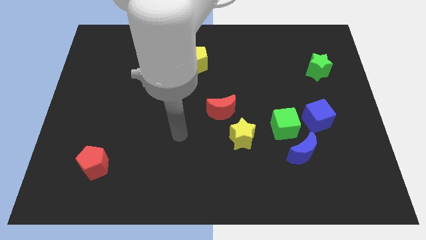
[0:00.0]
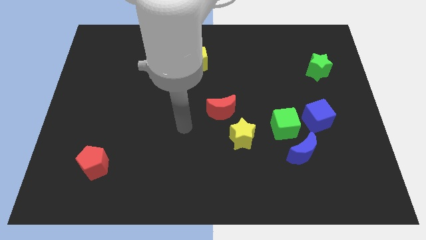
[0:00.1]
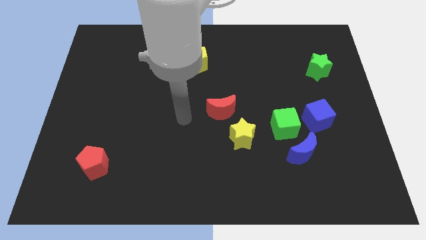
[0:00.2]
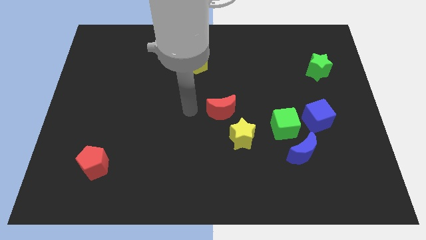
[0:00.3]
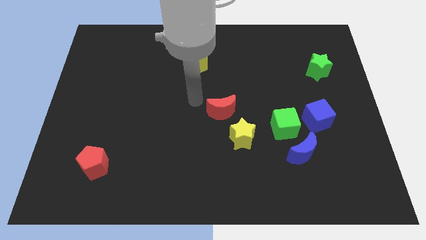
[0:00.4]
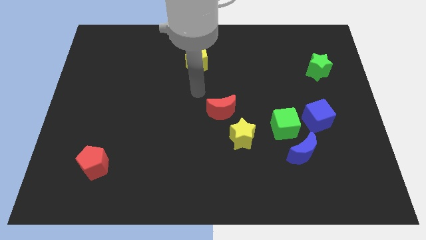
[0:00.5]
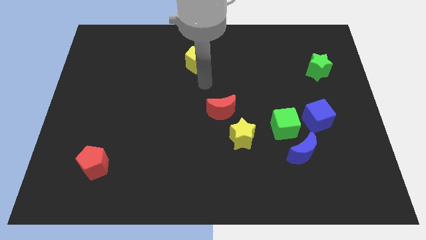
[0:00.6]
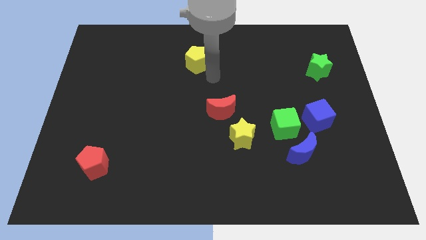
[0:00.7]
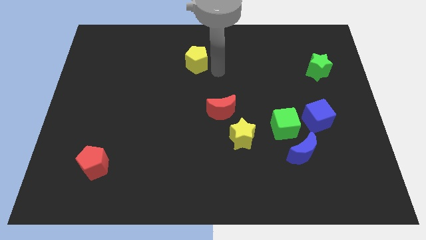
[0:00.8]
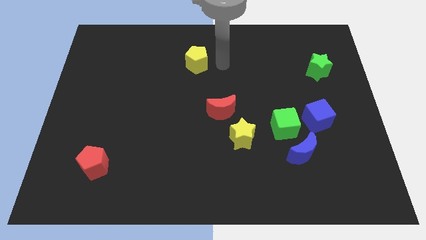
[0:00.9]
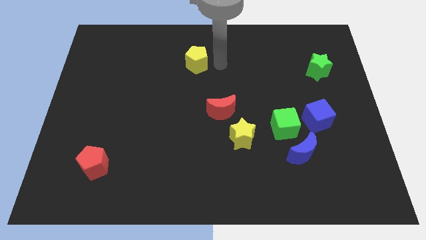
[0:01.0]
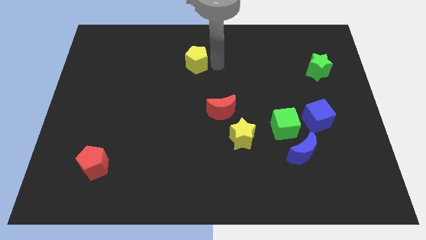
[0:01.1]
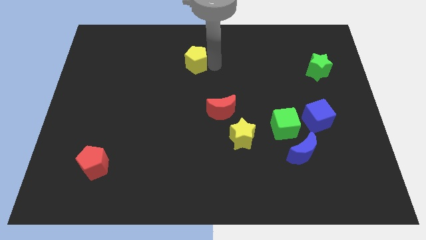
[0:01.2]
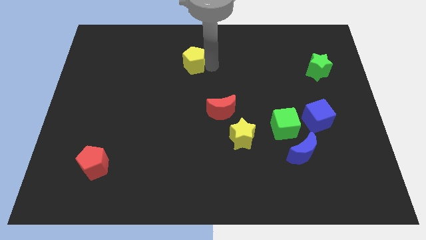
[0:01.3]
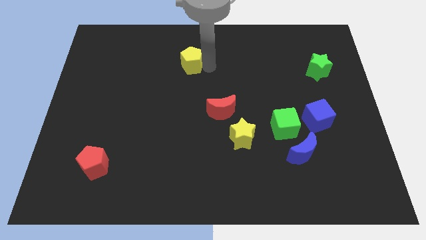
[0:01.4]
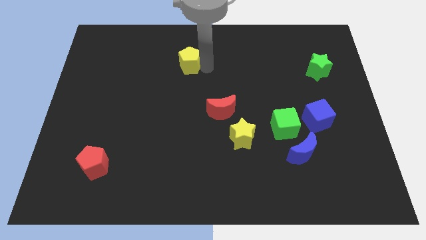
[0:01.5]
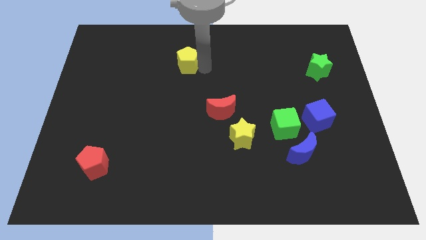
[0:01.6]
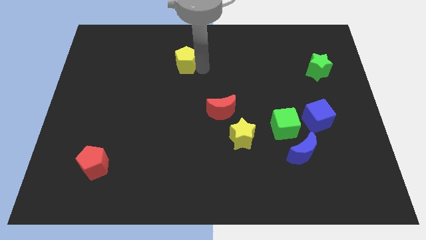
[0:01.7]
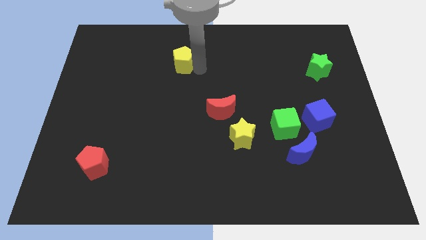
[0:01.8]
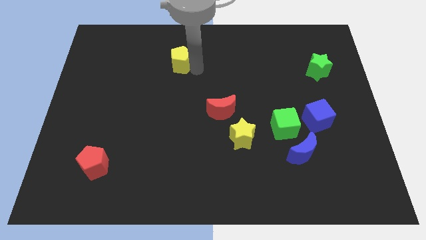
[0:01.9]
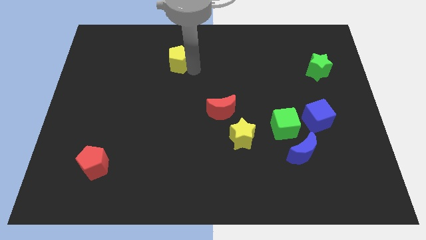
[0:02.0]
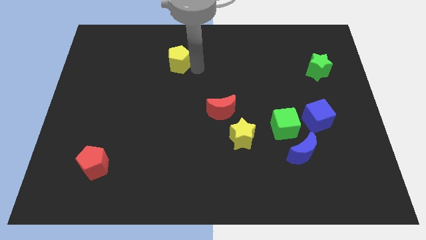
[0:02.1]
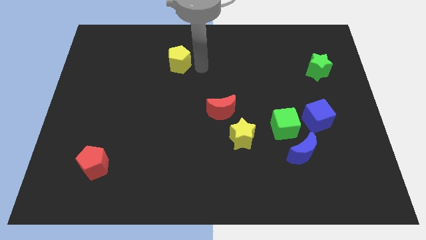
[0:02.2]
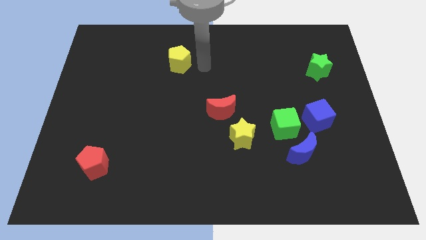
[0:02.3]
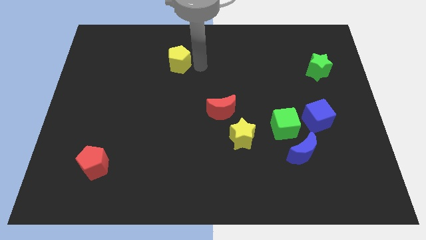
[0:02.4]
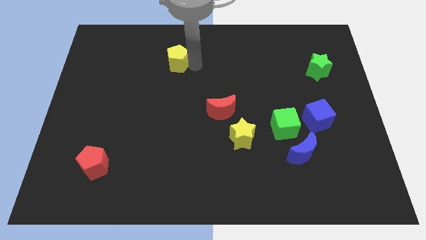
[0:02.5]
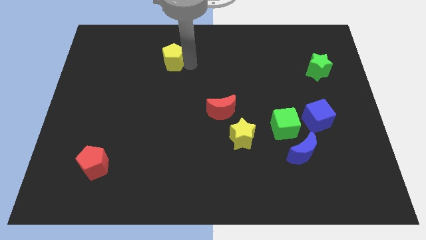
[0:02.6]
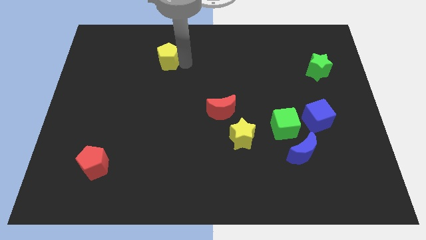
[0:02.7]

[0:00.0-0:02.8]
slide the yellow pentagon a little bit left

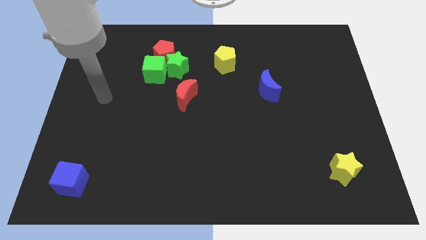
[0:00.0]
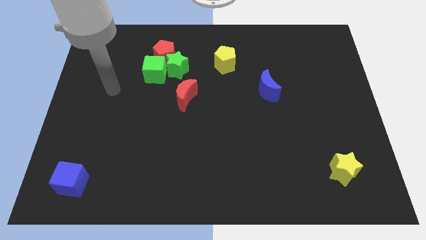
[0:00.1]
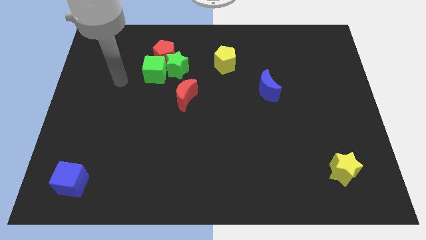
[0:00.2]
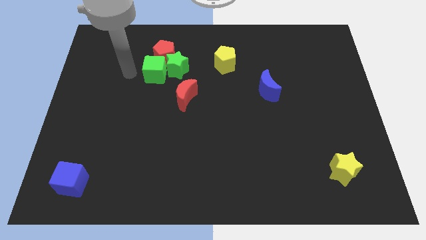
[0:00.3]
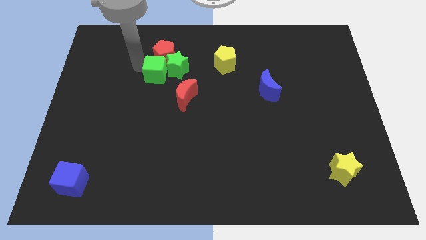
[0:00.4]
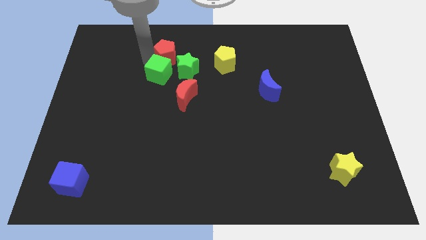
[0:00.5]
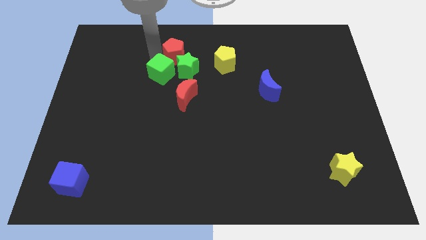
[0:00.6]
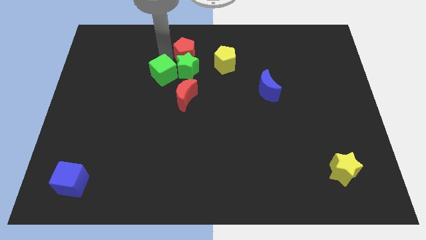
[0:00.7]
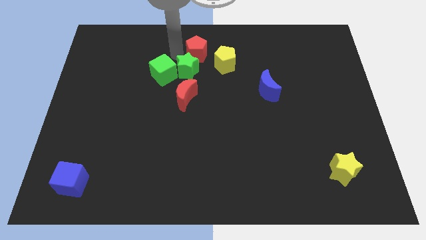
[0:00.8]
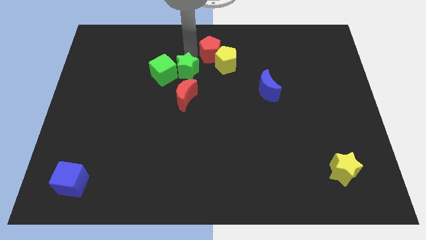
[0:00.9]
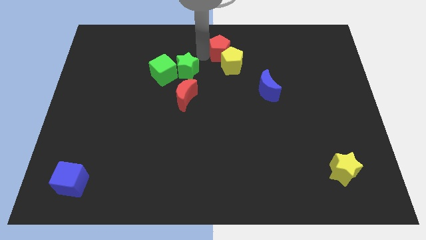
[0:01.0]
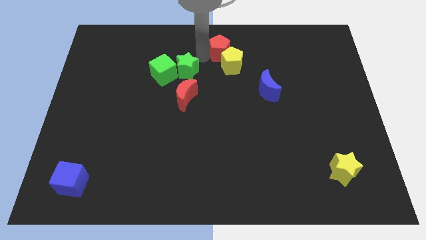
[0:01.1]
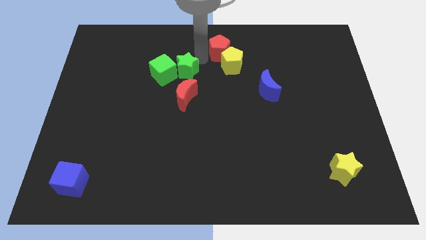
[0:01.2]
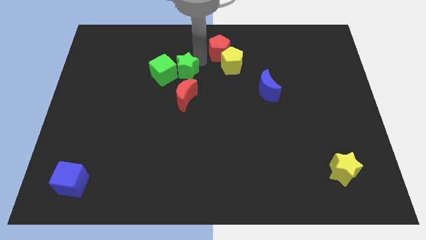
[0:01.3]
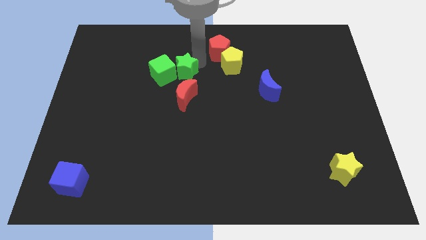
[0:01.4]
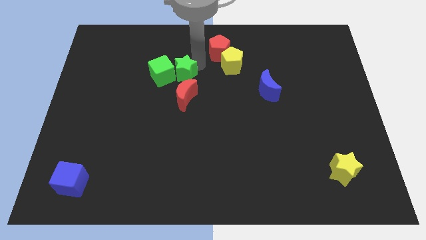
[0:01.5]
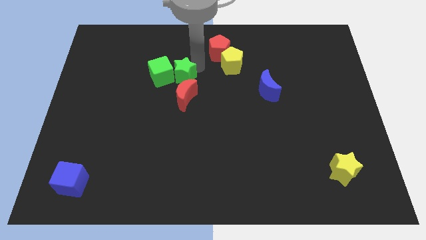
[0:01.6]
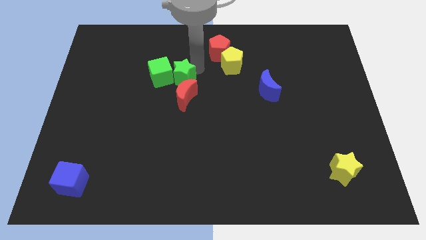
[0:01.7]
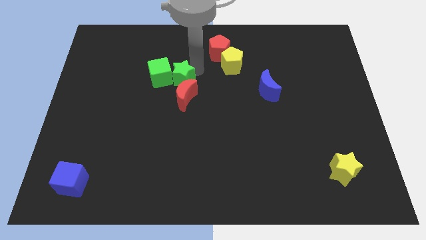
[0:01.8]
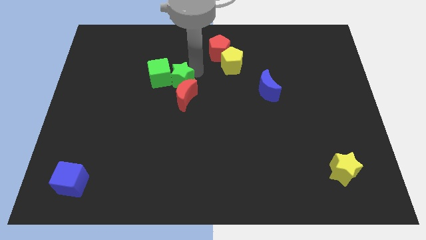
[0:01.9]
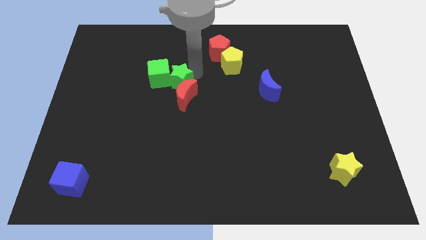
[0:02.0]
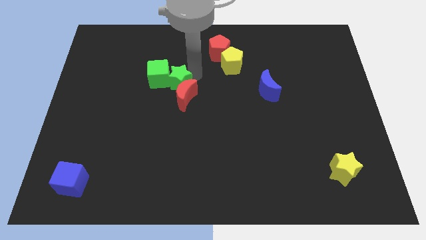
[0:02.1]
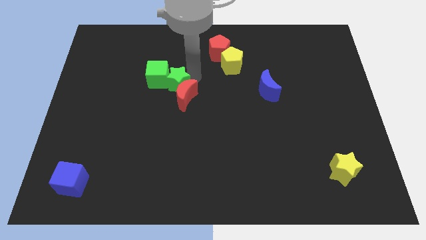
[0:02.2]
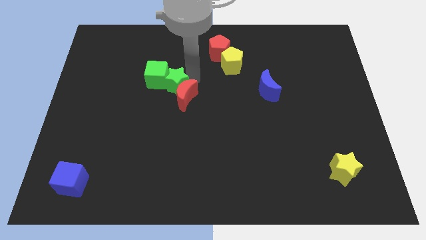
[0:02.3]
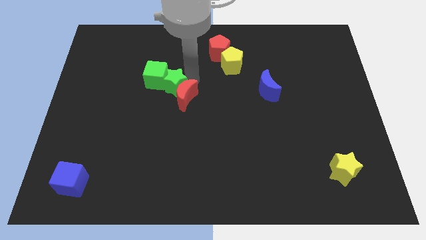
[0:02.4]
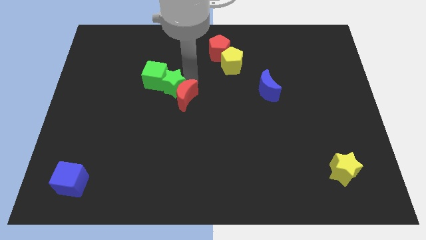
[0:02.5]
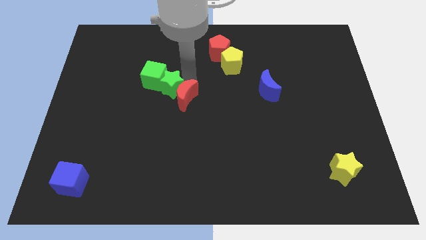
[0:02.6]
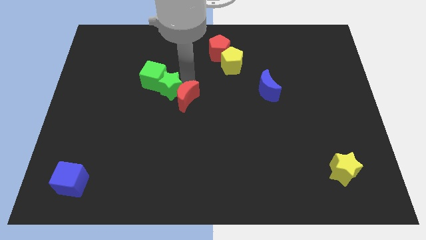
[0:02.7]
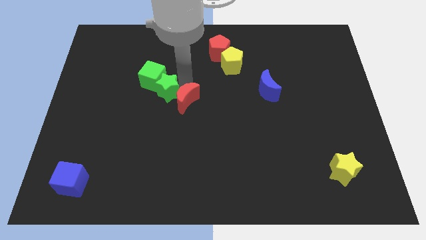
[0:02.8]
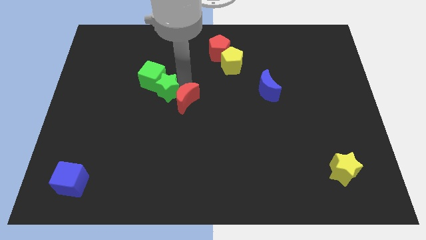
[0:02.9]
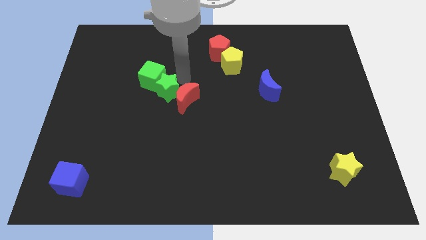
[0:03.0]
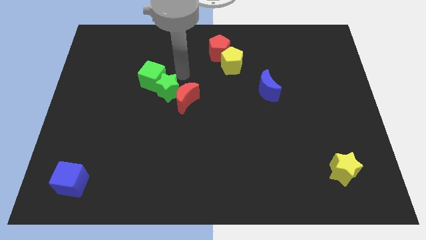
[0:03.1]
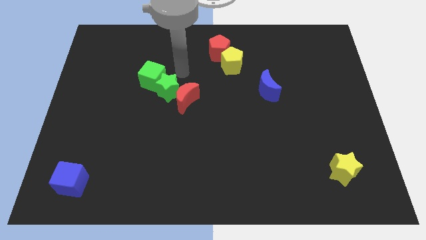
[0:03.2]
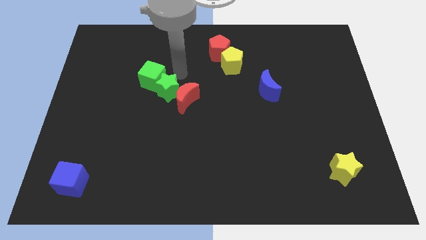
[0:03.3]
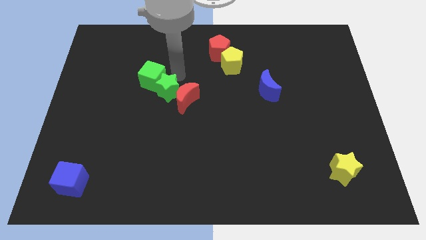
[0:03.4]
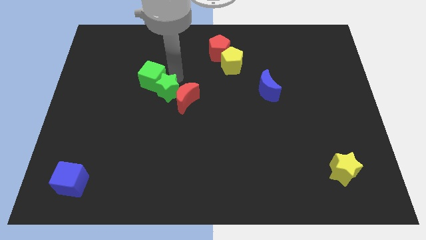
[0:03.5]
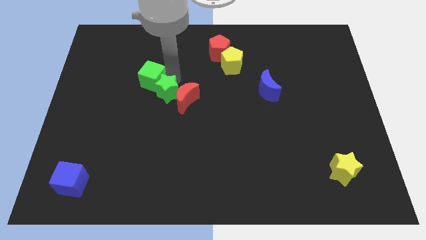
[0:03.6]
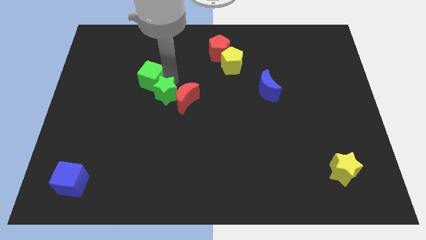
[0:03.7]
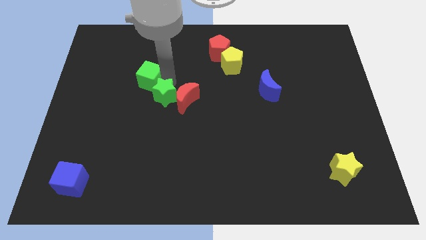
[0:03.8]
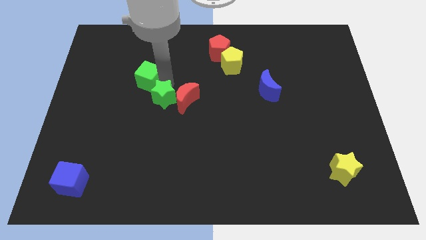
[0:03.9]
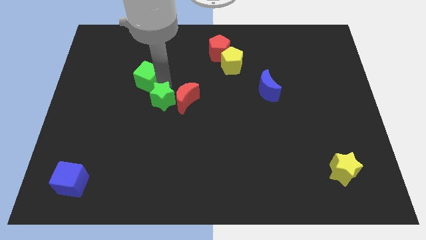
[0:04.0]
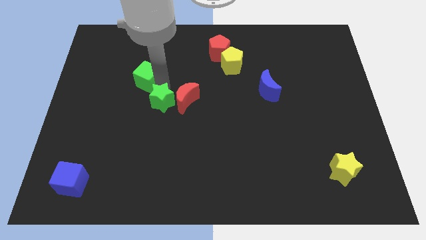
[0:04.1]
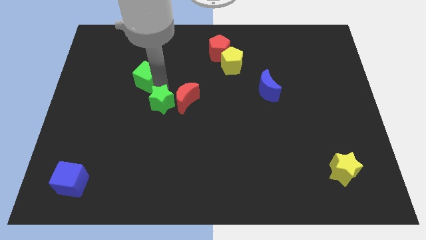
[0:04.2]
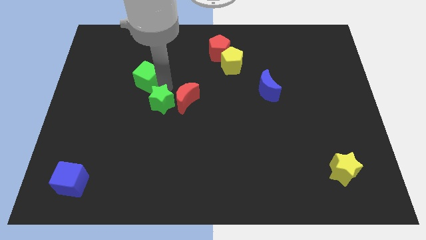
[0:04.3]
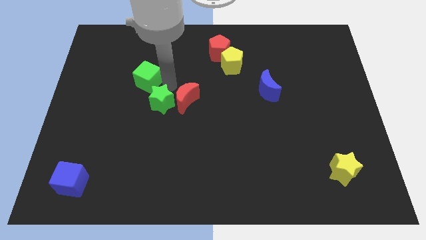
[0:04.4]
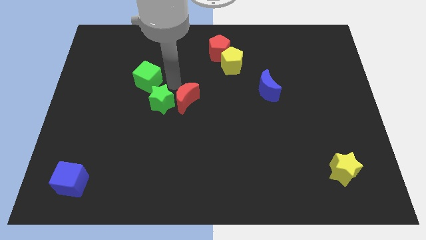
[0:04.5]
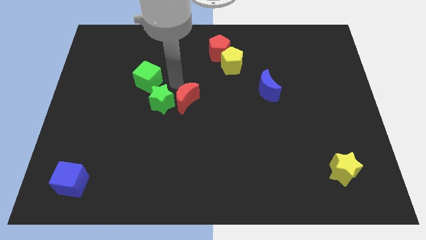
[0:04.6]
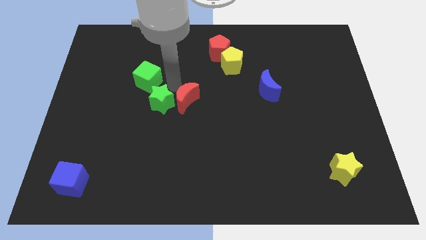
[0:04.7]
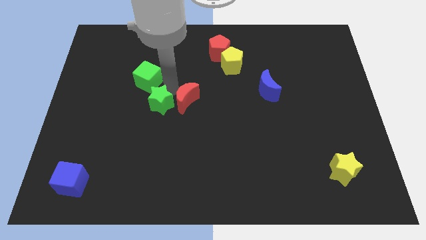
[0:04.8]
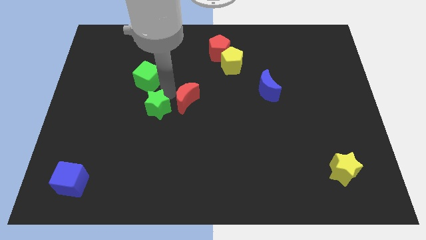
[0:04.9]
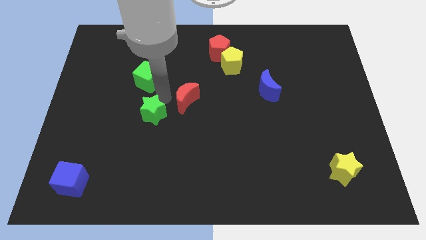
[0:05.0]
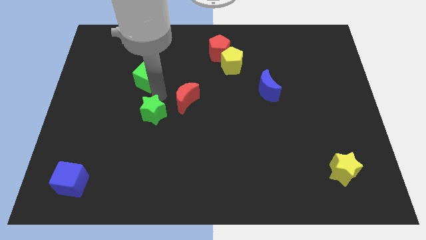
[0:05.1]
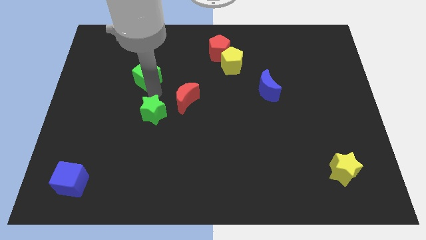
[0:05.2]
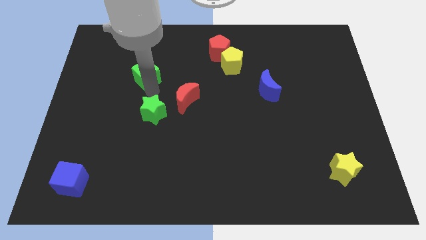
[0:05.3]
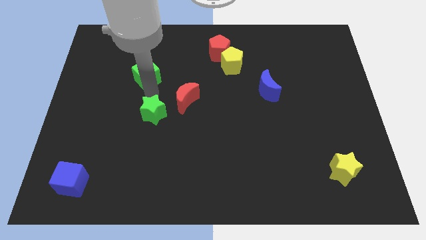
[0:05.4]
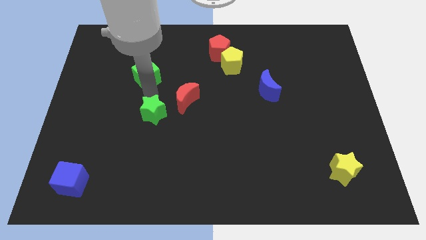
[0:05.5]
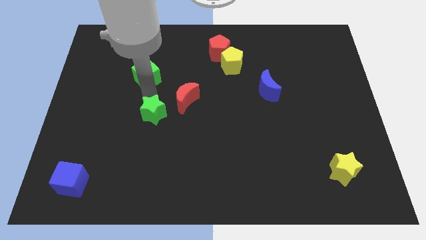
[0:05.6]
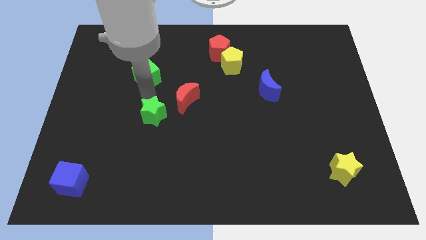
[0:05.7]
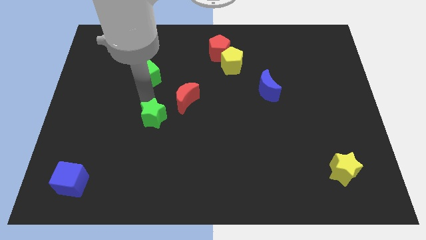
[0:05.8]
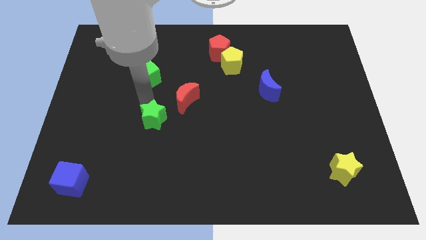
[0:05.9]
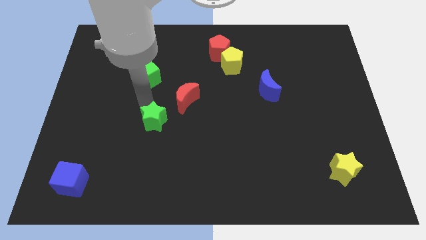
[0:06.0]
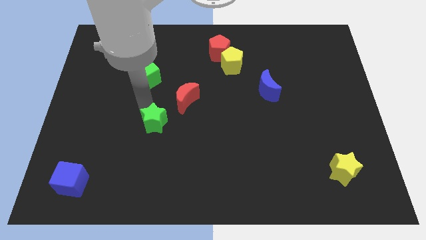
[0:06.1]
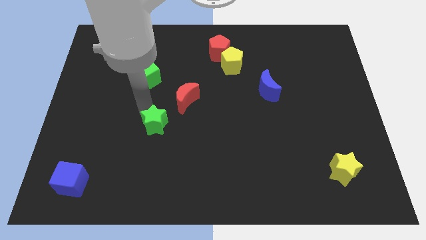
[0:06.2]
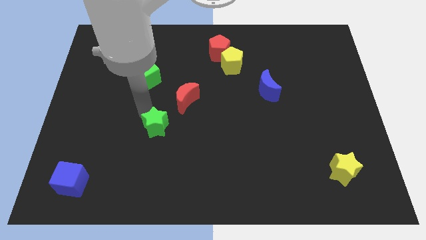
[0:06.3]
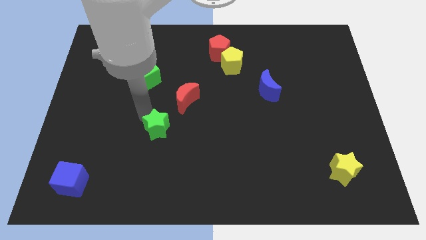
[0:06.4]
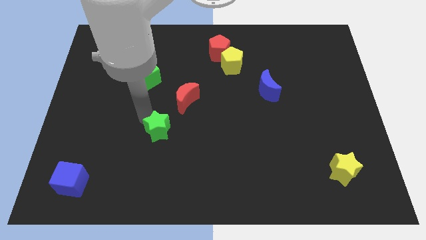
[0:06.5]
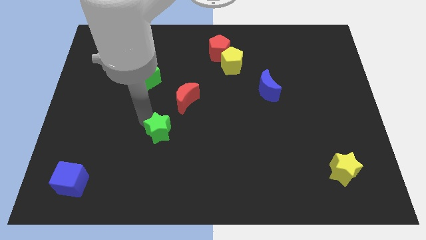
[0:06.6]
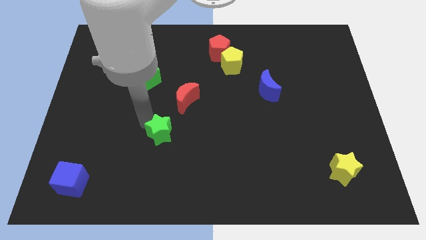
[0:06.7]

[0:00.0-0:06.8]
push the green star down
